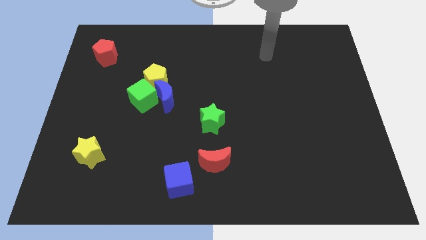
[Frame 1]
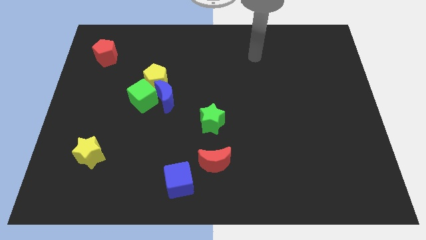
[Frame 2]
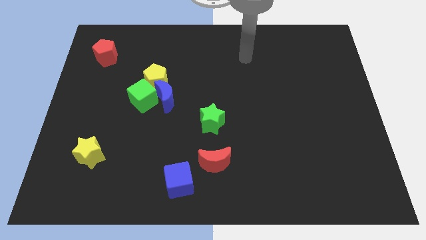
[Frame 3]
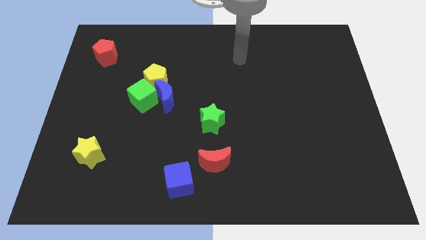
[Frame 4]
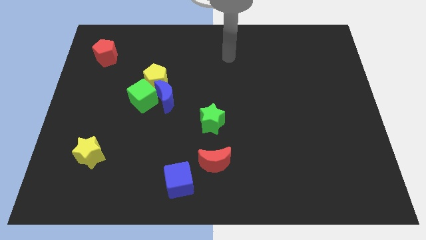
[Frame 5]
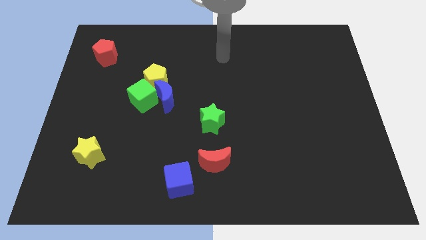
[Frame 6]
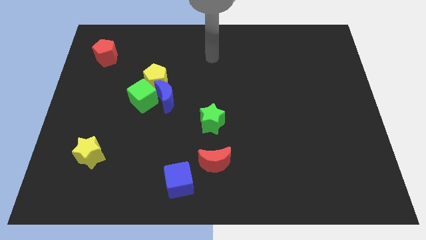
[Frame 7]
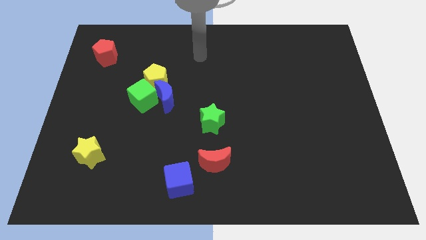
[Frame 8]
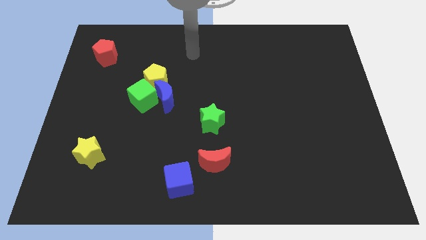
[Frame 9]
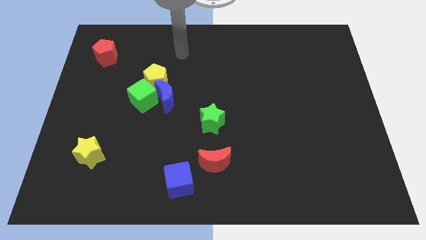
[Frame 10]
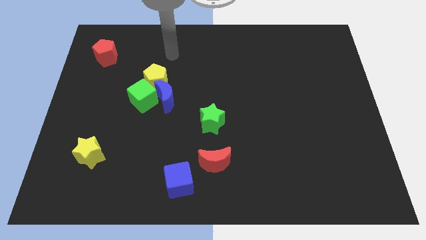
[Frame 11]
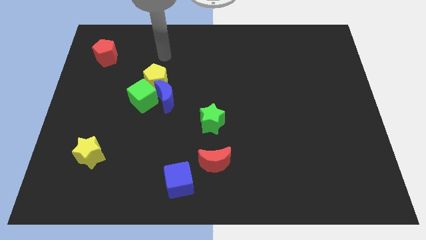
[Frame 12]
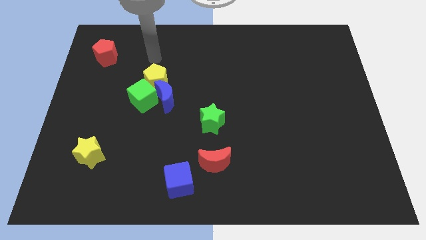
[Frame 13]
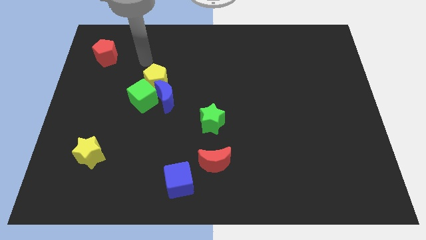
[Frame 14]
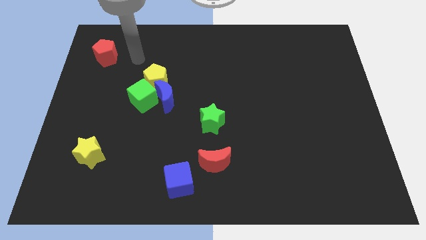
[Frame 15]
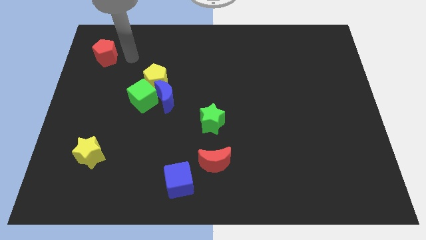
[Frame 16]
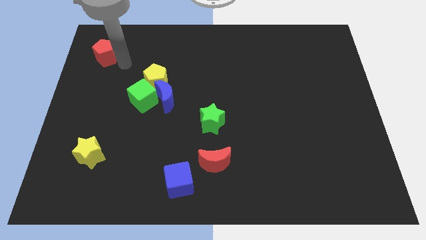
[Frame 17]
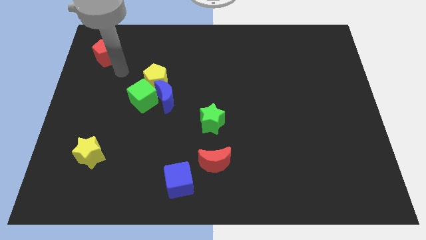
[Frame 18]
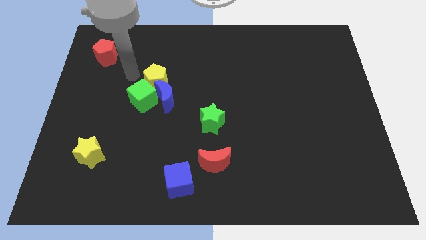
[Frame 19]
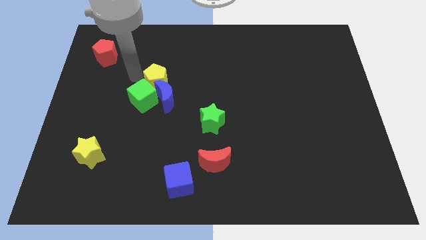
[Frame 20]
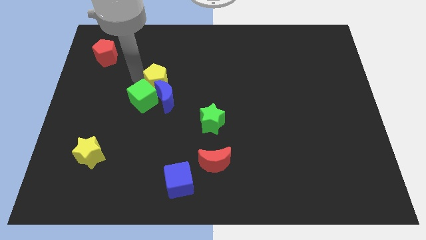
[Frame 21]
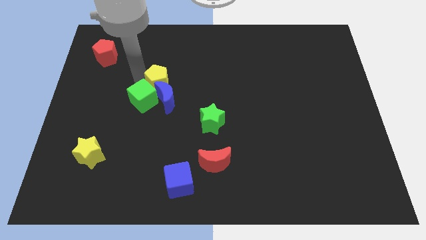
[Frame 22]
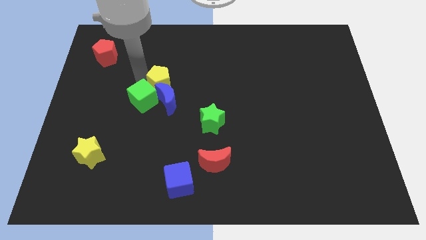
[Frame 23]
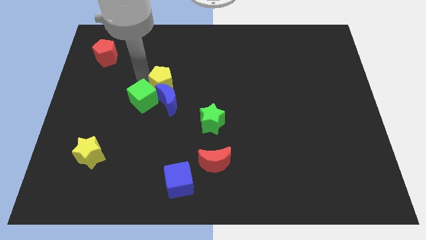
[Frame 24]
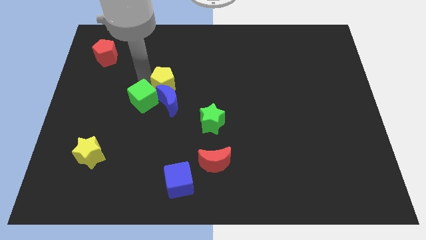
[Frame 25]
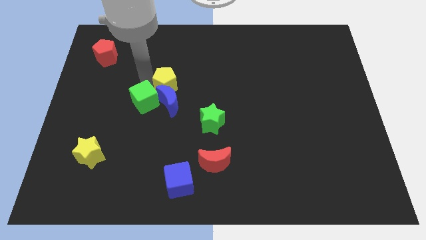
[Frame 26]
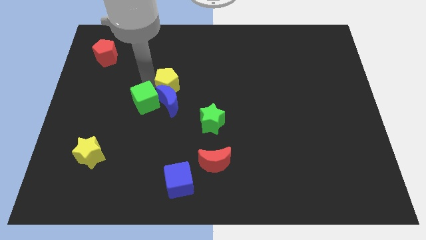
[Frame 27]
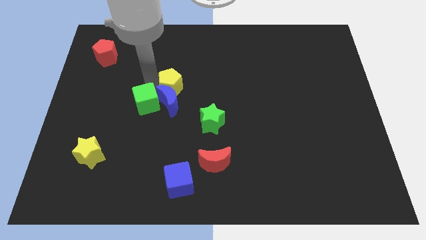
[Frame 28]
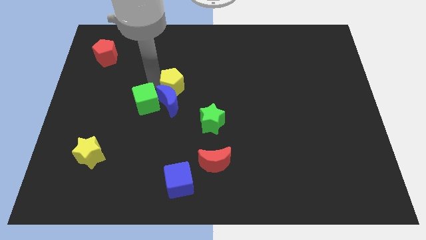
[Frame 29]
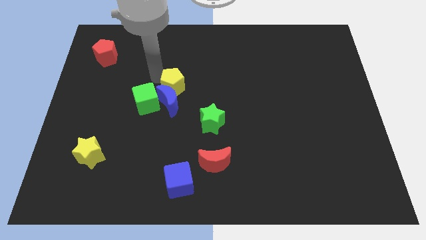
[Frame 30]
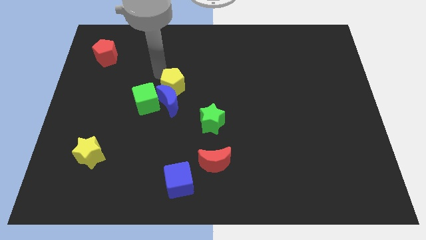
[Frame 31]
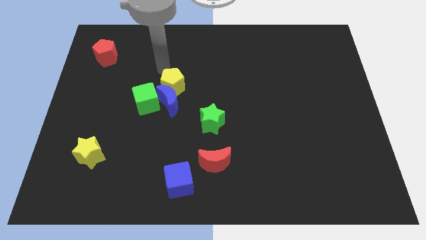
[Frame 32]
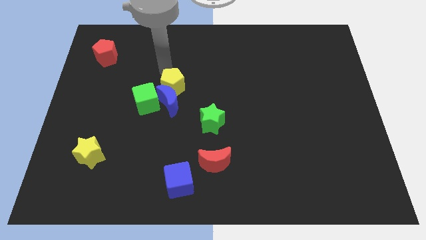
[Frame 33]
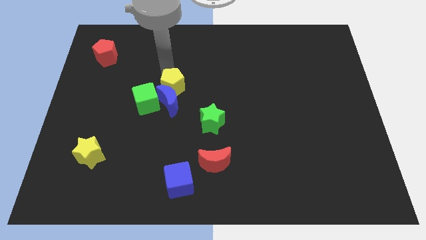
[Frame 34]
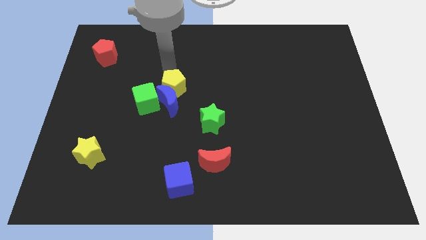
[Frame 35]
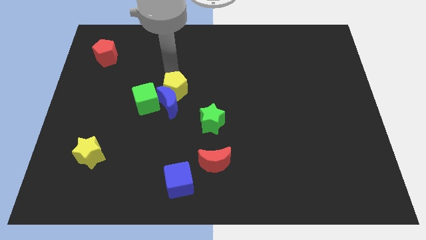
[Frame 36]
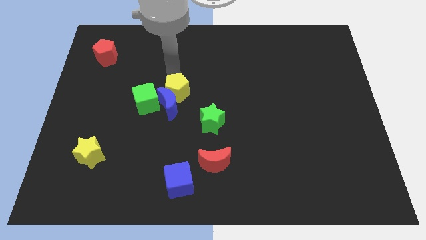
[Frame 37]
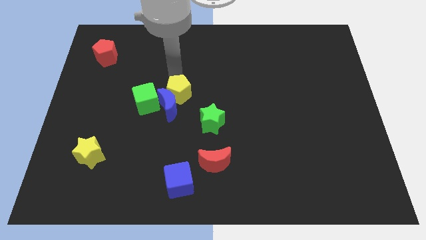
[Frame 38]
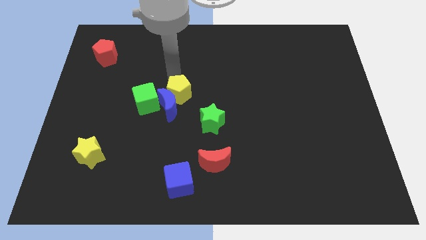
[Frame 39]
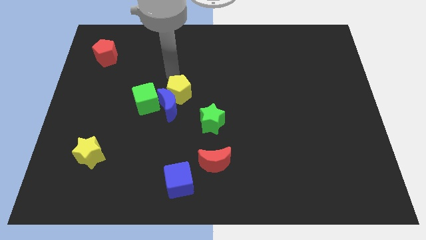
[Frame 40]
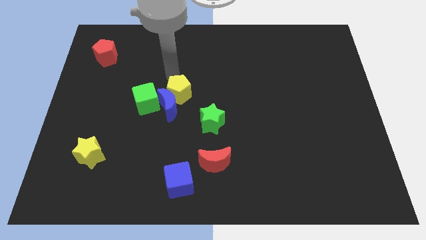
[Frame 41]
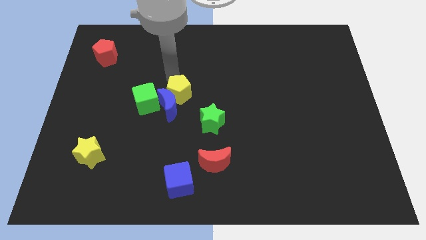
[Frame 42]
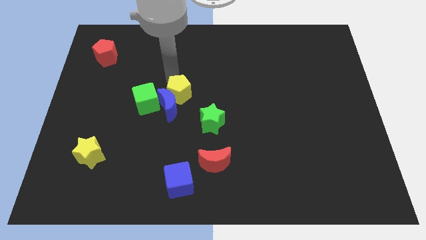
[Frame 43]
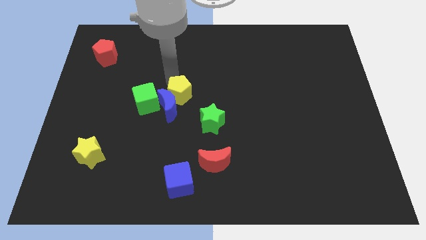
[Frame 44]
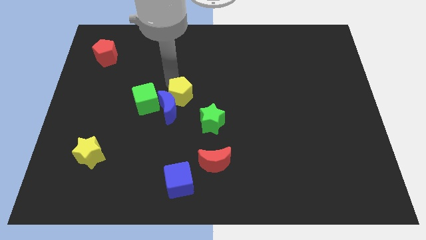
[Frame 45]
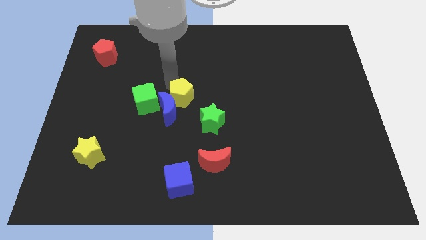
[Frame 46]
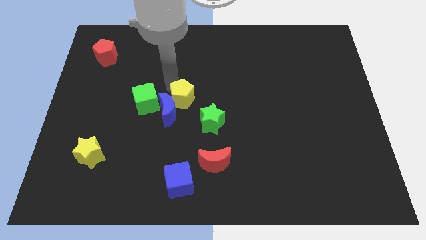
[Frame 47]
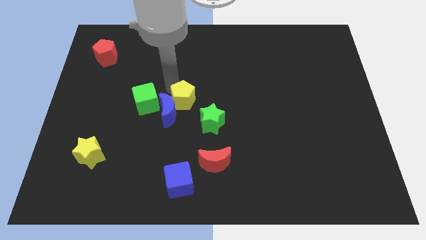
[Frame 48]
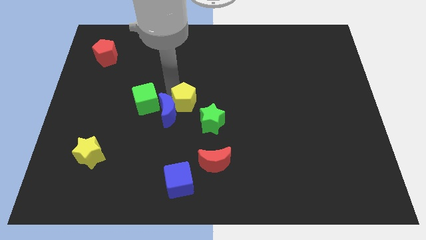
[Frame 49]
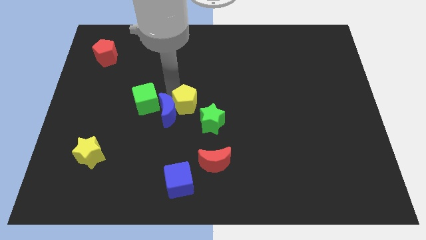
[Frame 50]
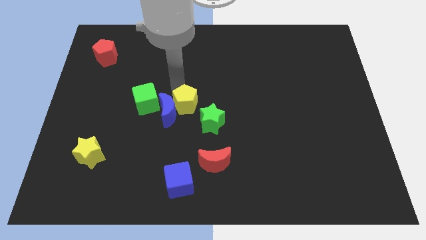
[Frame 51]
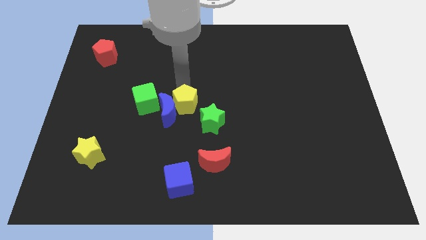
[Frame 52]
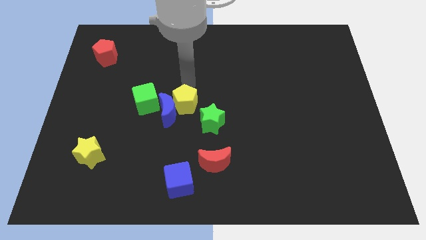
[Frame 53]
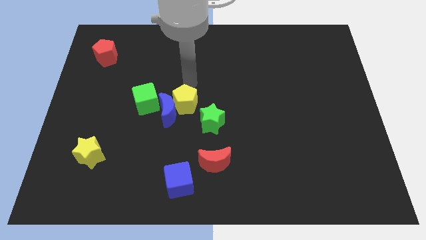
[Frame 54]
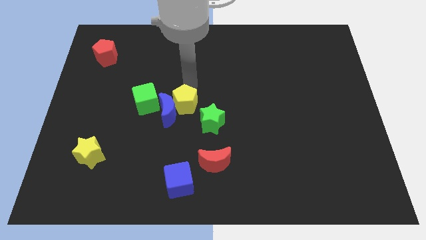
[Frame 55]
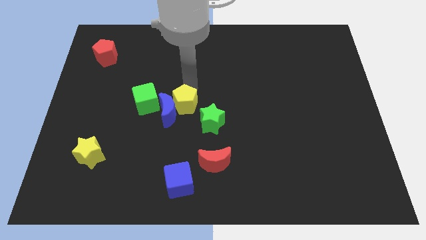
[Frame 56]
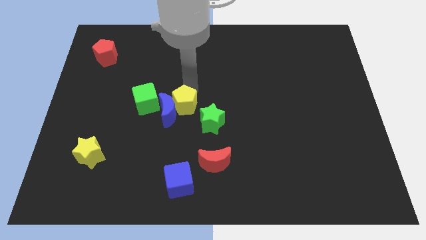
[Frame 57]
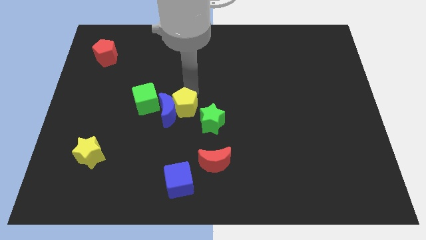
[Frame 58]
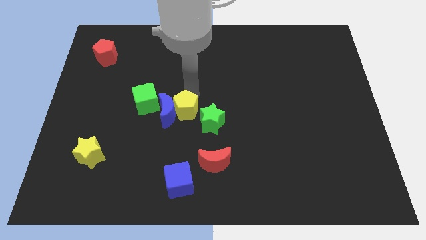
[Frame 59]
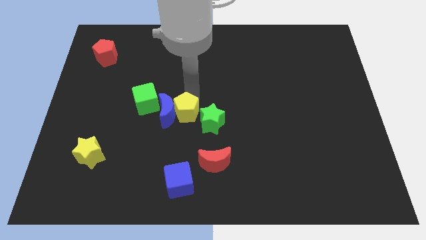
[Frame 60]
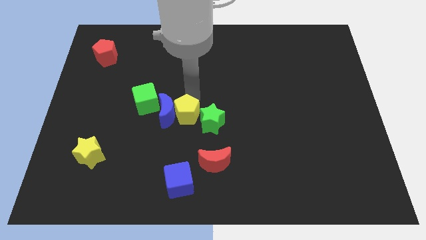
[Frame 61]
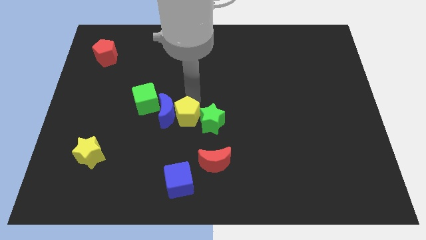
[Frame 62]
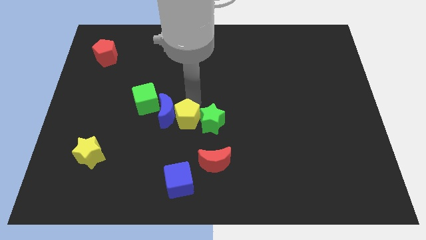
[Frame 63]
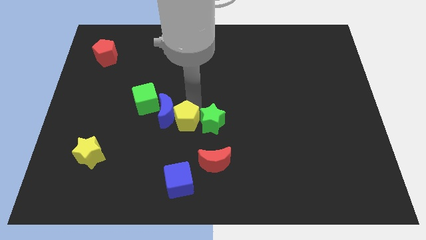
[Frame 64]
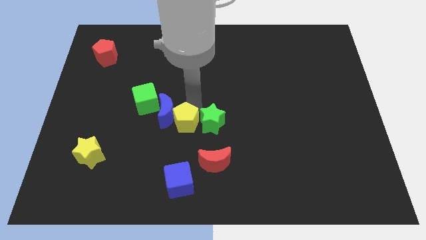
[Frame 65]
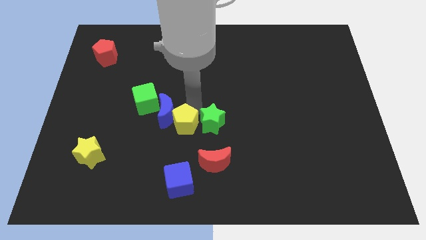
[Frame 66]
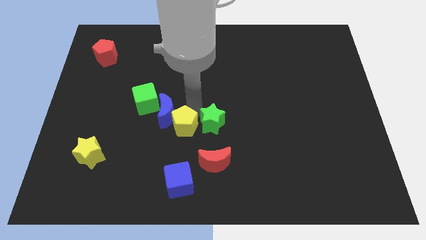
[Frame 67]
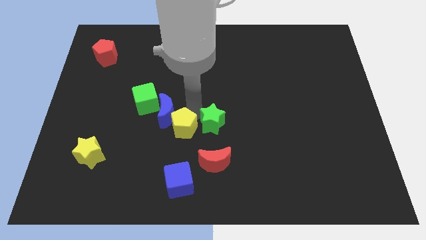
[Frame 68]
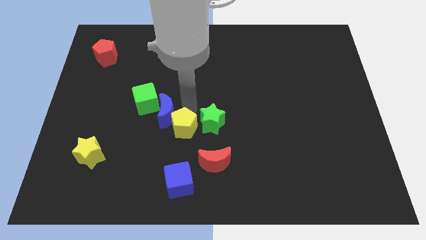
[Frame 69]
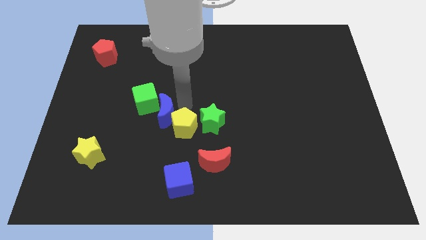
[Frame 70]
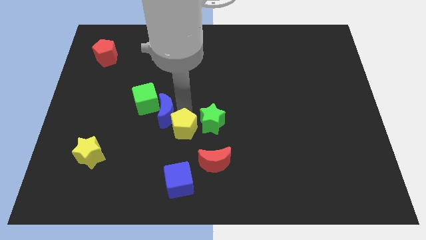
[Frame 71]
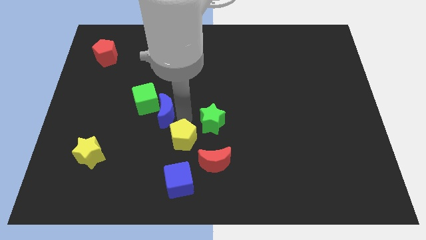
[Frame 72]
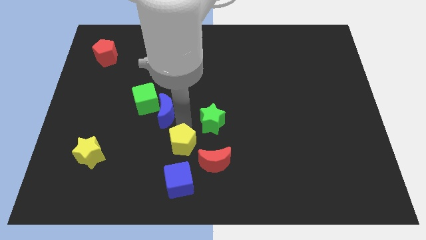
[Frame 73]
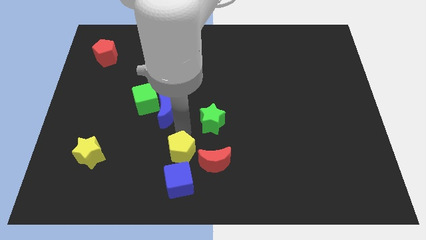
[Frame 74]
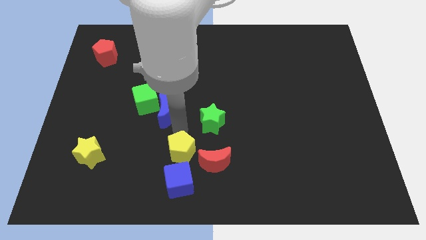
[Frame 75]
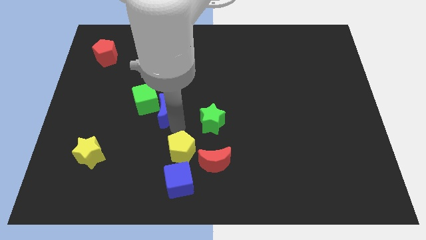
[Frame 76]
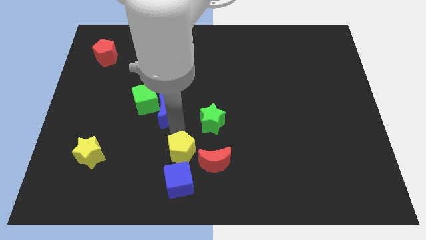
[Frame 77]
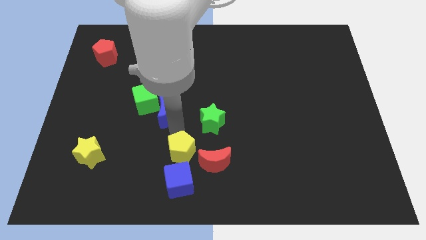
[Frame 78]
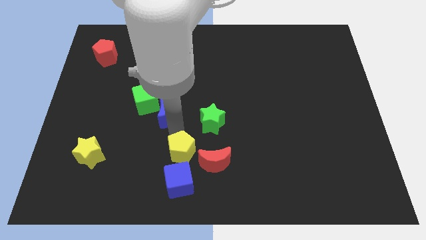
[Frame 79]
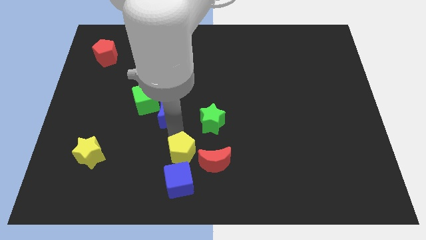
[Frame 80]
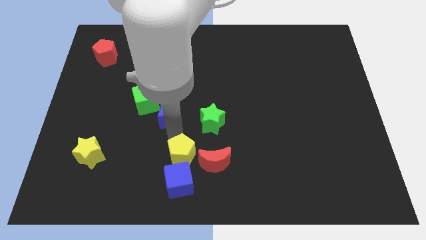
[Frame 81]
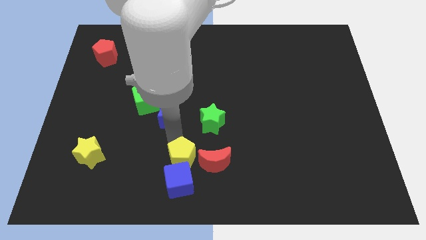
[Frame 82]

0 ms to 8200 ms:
slide the yellow pentagon towards the blue cube
